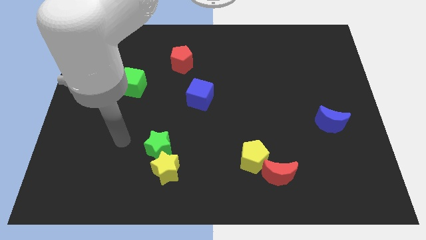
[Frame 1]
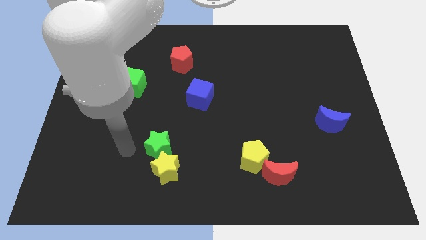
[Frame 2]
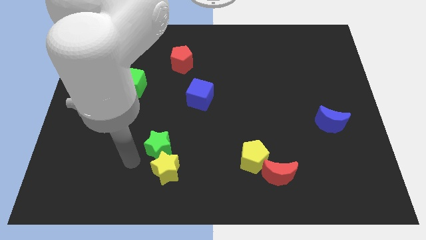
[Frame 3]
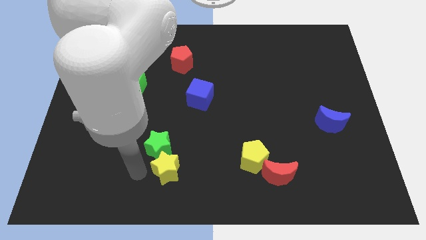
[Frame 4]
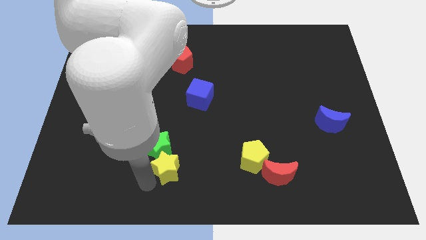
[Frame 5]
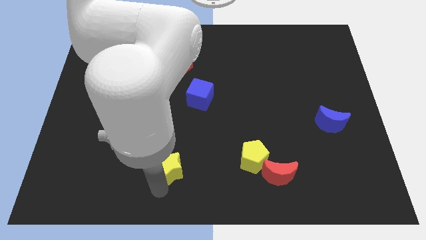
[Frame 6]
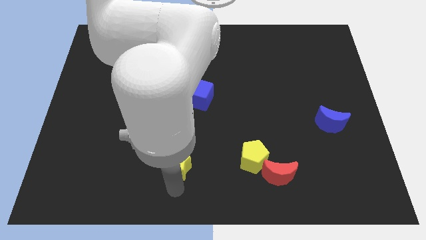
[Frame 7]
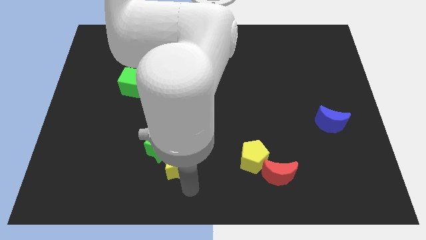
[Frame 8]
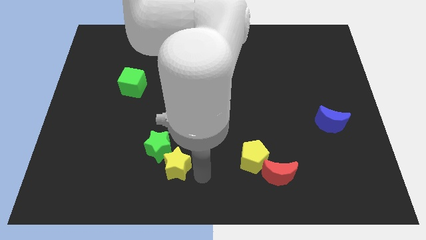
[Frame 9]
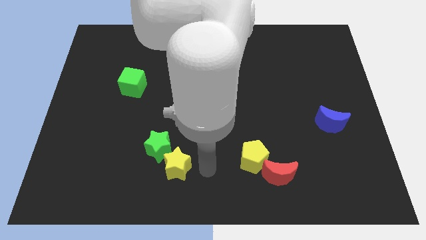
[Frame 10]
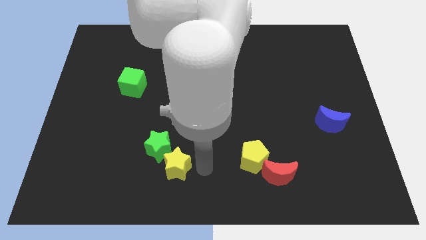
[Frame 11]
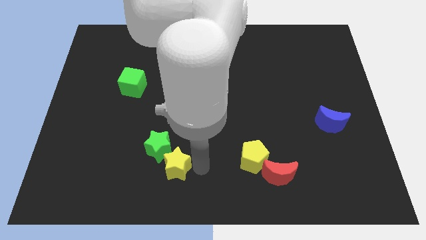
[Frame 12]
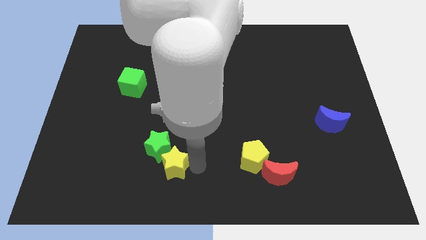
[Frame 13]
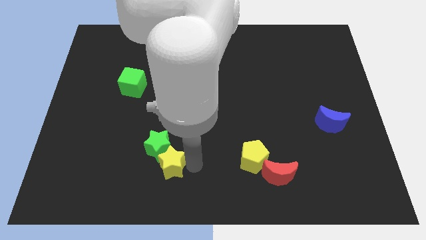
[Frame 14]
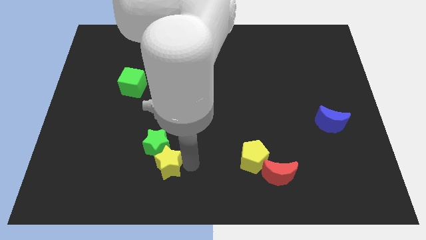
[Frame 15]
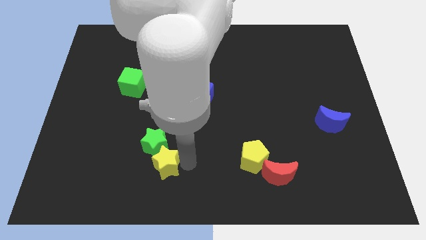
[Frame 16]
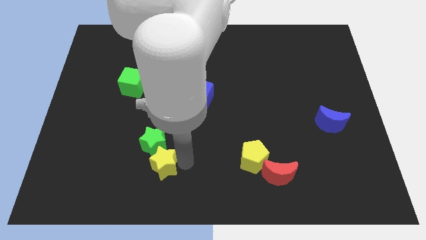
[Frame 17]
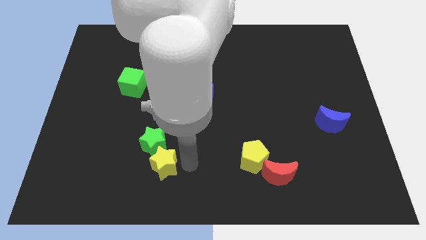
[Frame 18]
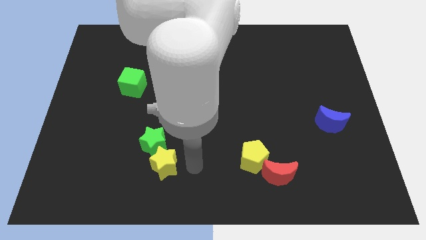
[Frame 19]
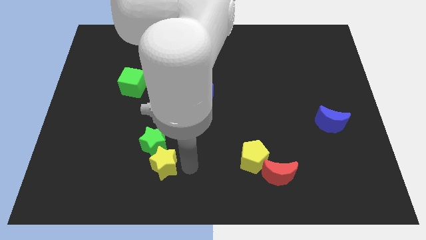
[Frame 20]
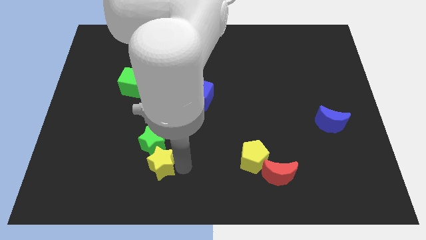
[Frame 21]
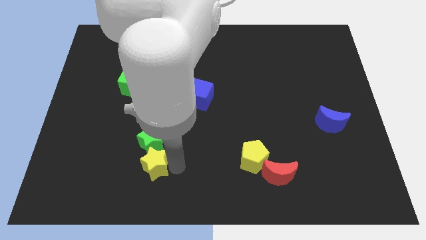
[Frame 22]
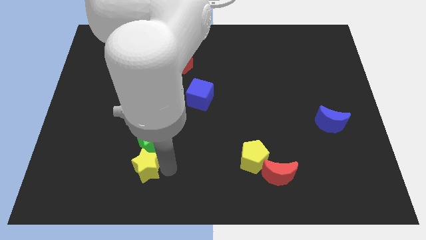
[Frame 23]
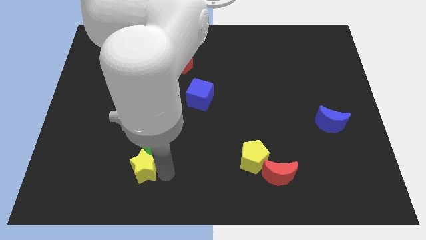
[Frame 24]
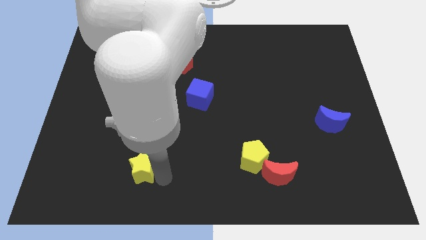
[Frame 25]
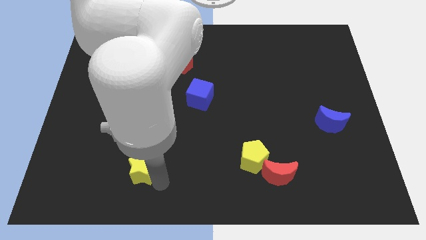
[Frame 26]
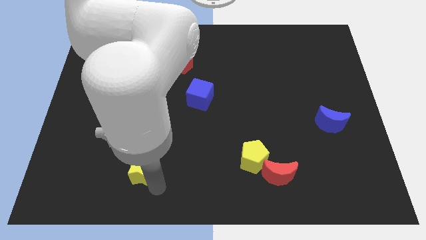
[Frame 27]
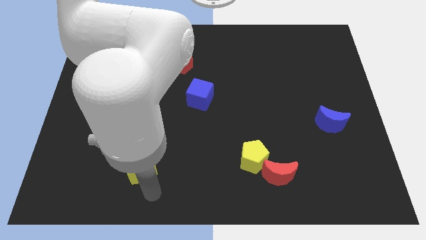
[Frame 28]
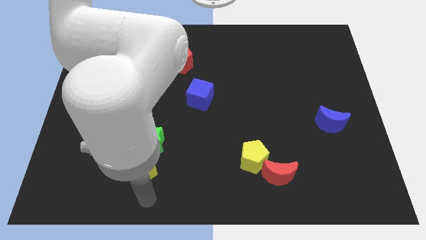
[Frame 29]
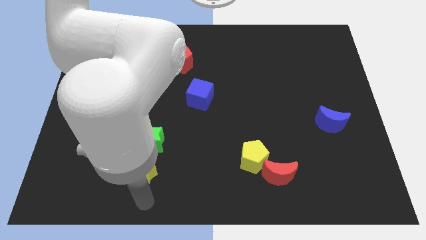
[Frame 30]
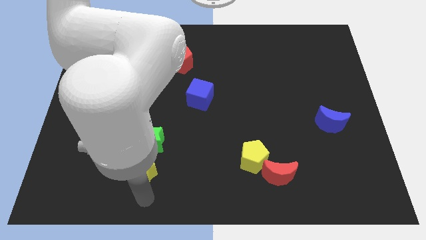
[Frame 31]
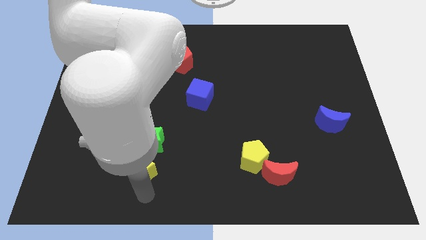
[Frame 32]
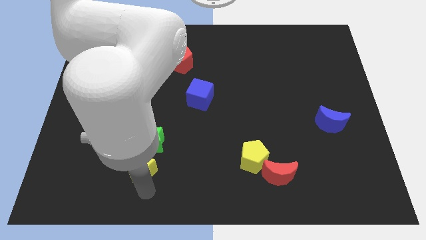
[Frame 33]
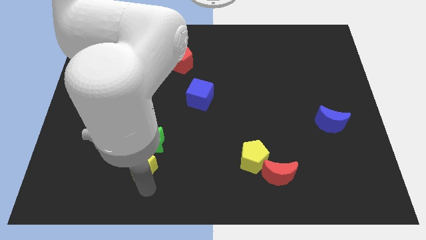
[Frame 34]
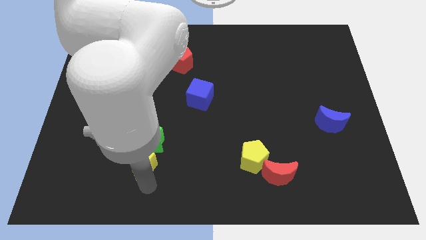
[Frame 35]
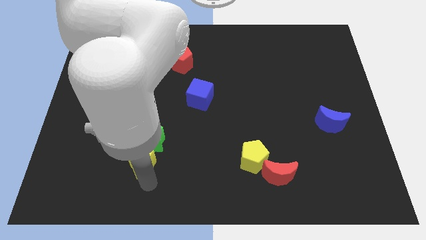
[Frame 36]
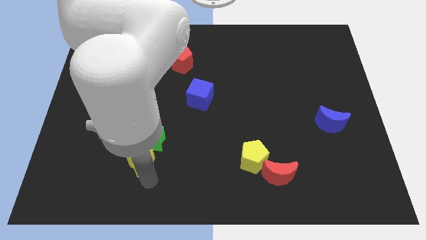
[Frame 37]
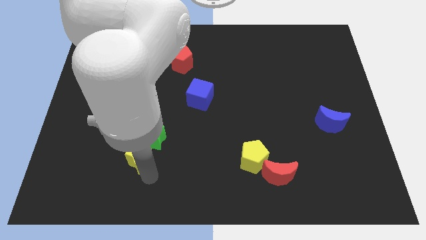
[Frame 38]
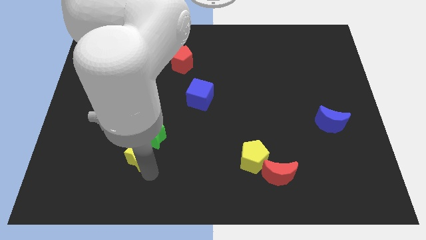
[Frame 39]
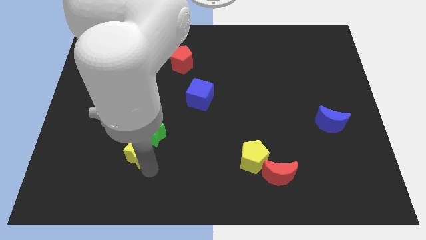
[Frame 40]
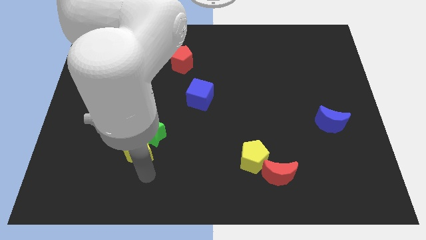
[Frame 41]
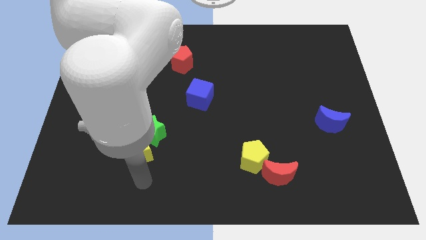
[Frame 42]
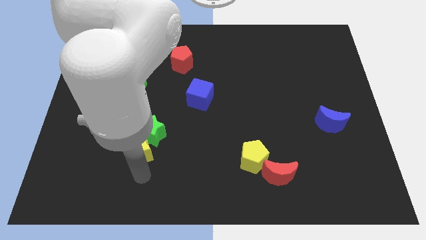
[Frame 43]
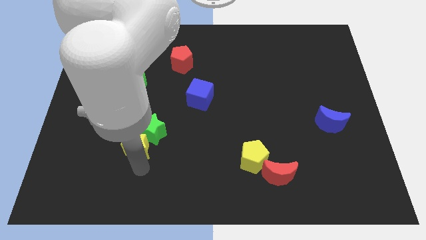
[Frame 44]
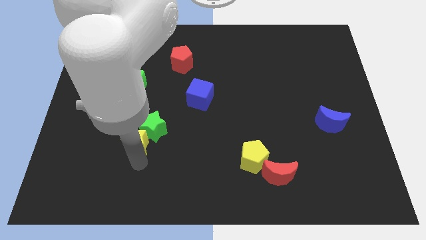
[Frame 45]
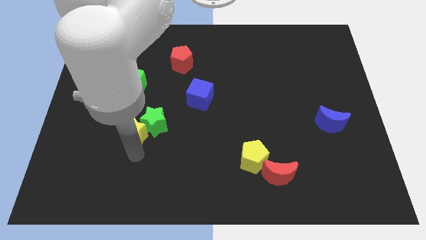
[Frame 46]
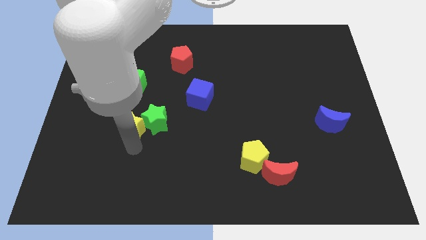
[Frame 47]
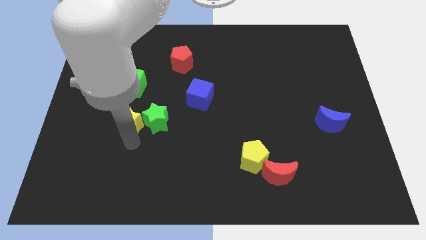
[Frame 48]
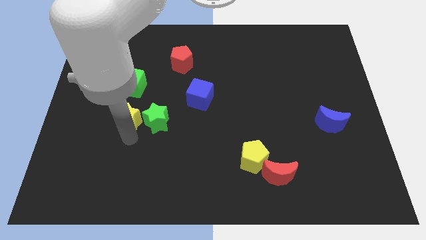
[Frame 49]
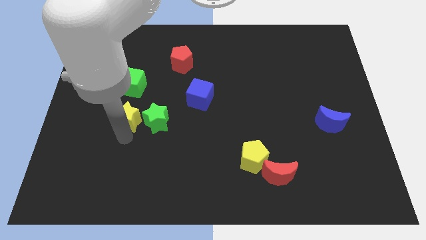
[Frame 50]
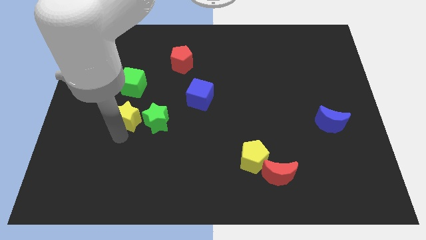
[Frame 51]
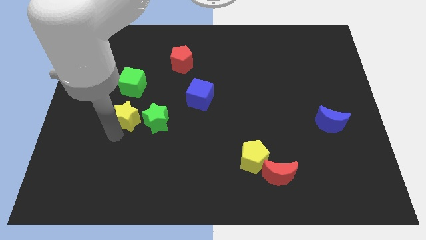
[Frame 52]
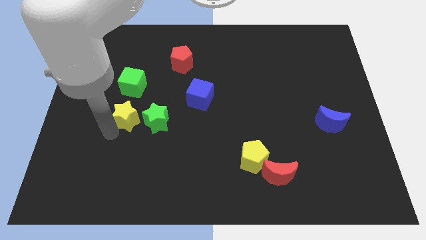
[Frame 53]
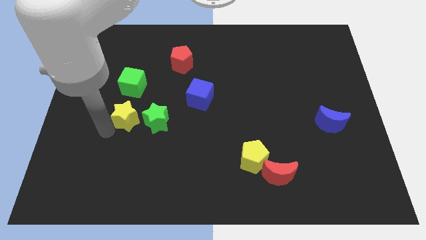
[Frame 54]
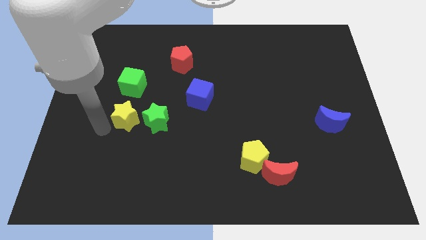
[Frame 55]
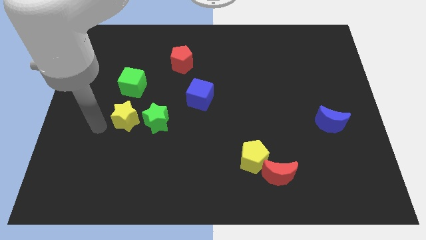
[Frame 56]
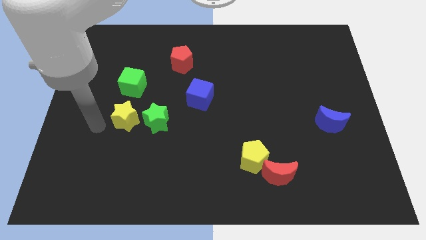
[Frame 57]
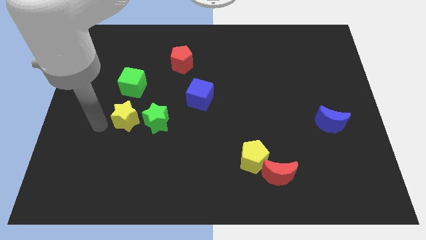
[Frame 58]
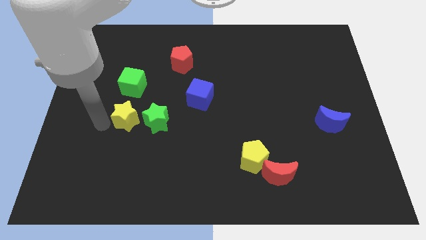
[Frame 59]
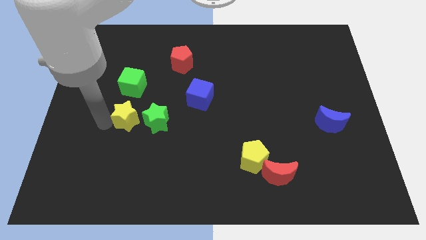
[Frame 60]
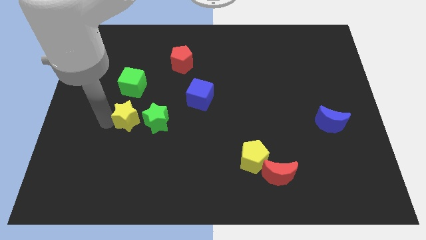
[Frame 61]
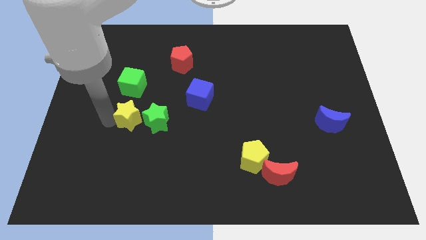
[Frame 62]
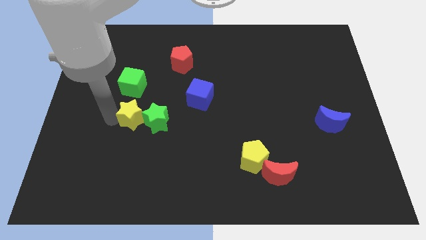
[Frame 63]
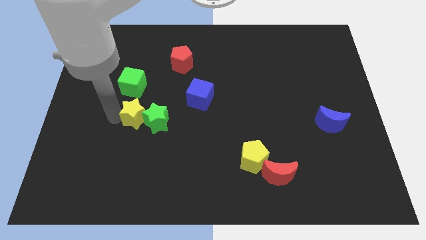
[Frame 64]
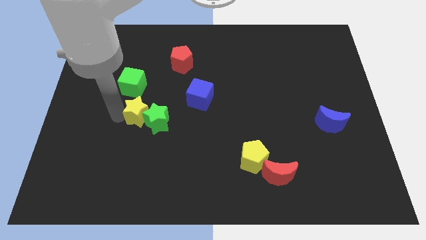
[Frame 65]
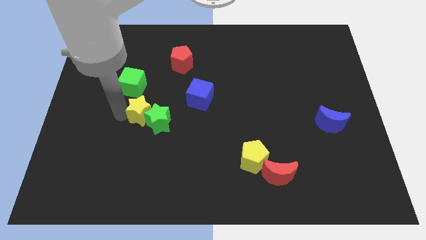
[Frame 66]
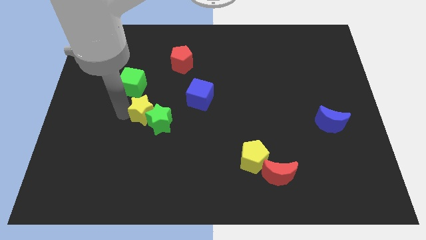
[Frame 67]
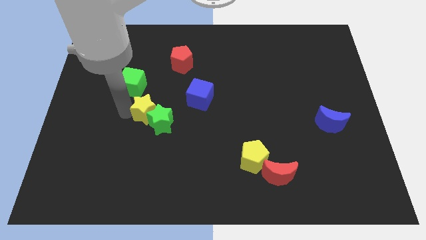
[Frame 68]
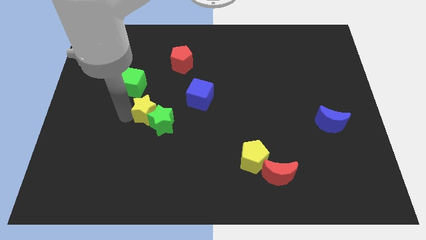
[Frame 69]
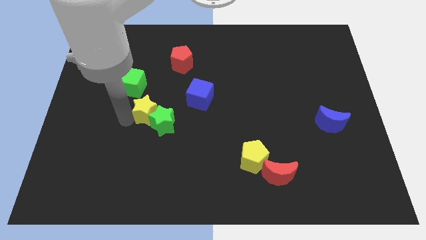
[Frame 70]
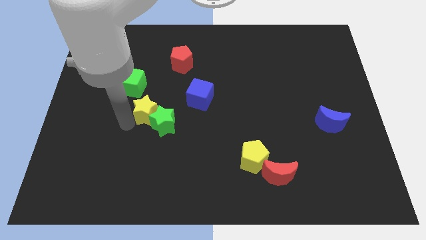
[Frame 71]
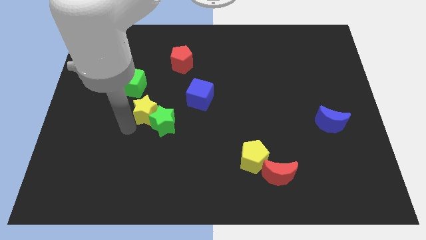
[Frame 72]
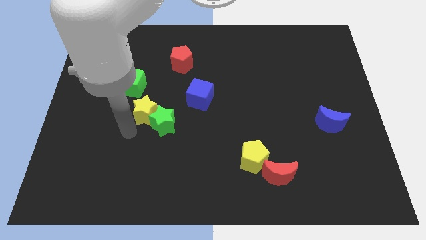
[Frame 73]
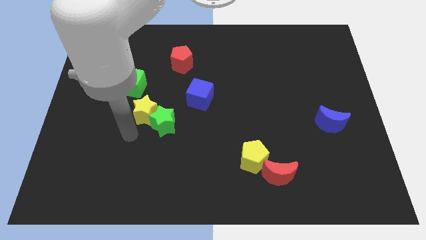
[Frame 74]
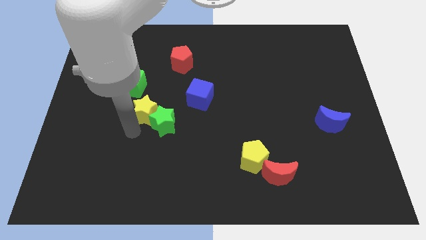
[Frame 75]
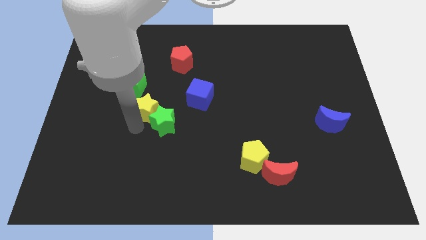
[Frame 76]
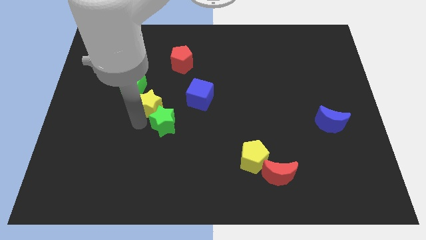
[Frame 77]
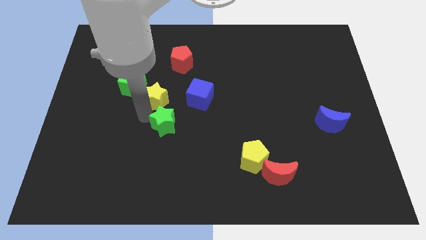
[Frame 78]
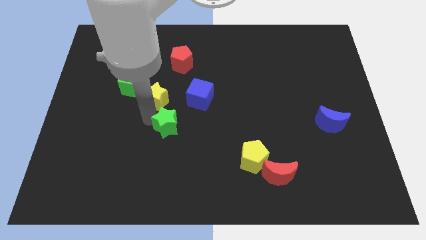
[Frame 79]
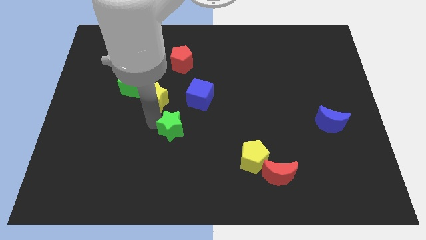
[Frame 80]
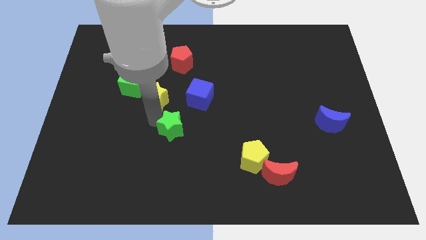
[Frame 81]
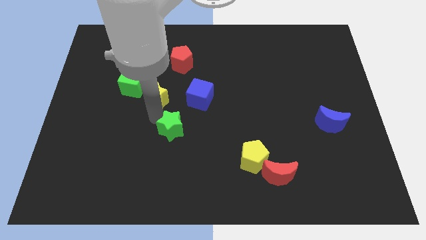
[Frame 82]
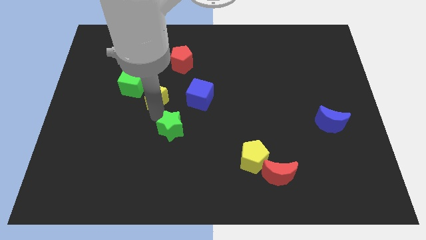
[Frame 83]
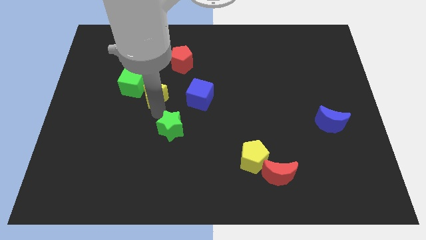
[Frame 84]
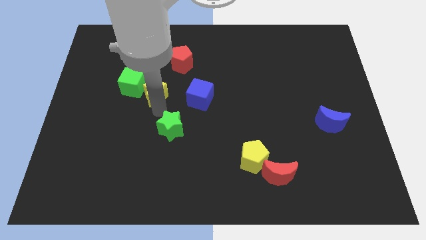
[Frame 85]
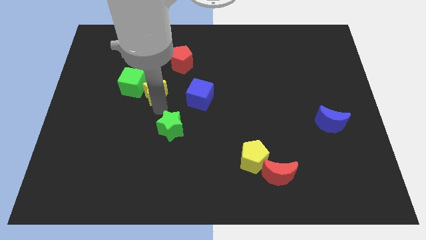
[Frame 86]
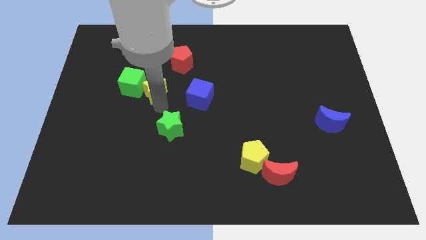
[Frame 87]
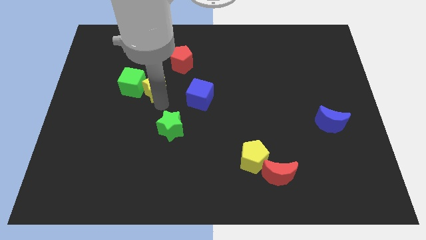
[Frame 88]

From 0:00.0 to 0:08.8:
move the yellow star to the top right of the green cube
